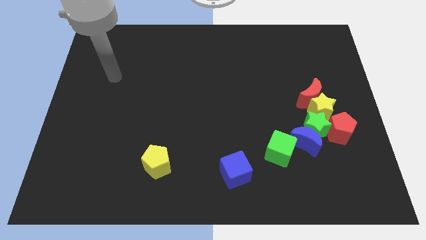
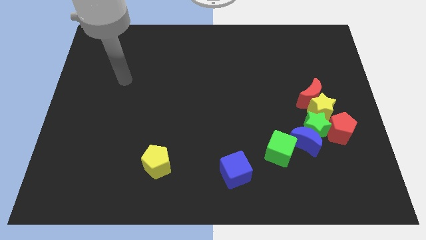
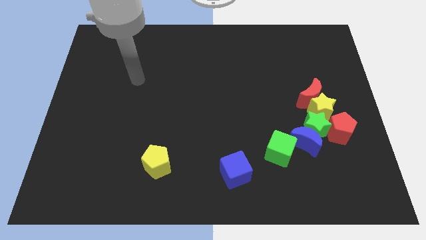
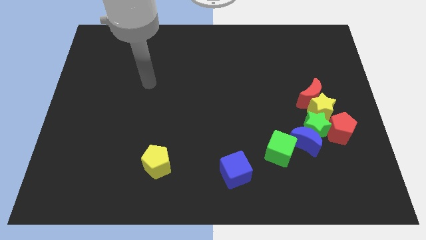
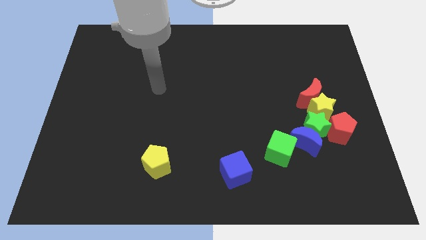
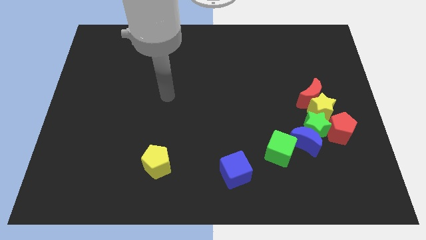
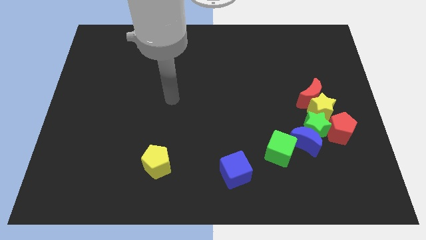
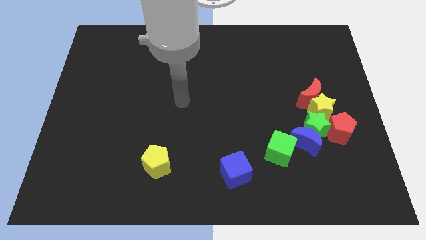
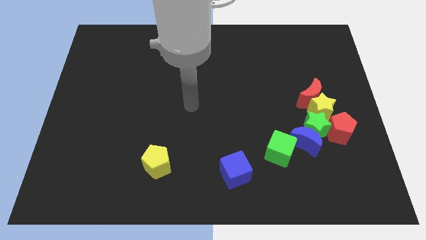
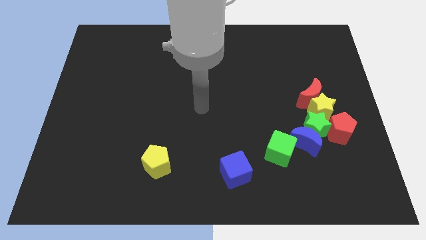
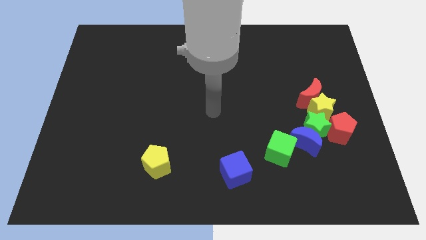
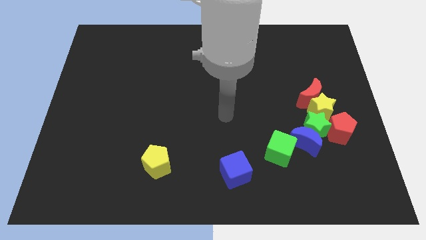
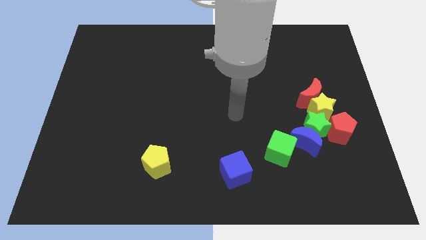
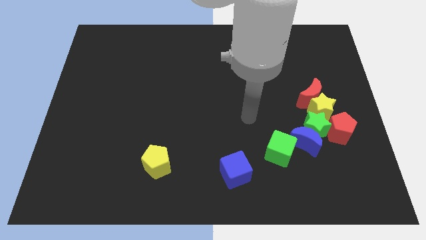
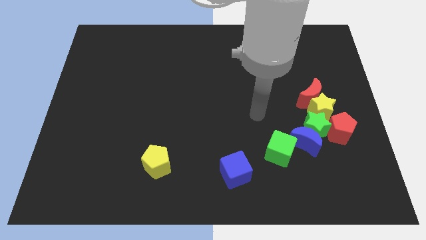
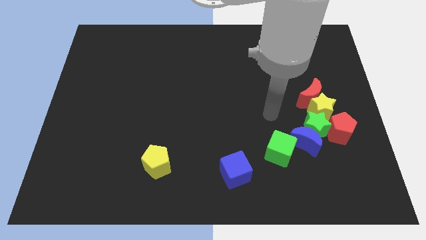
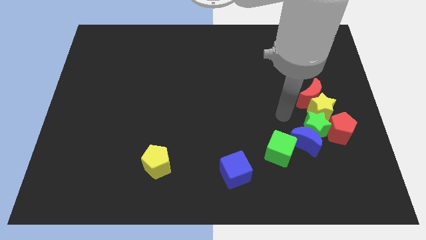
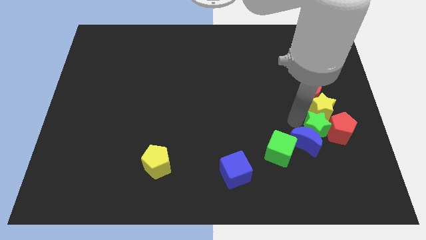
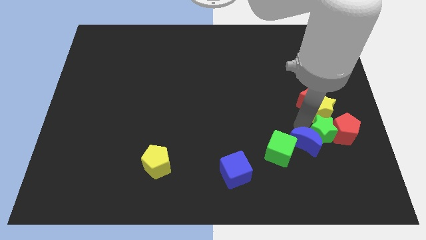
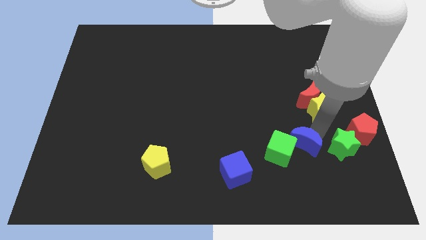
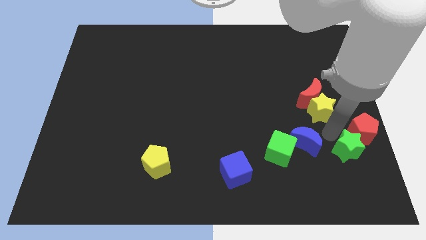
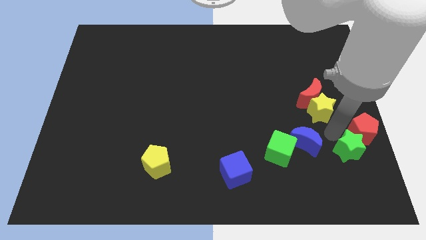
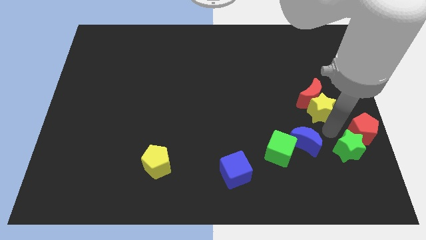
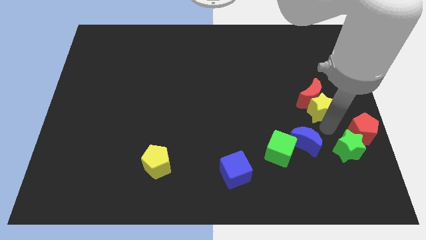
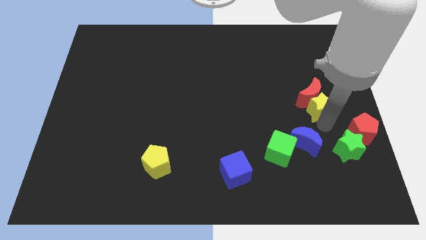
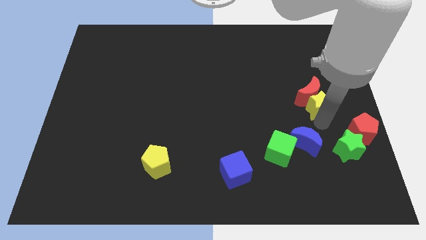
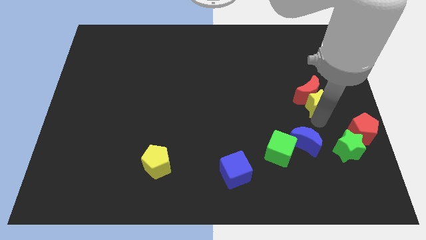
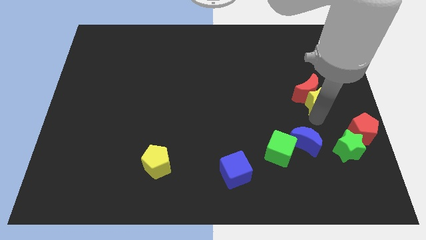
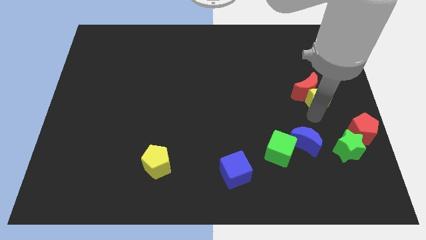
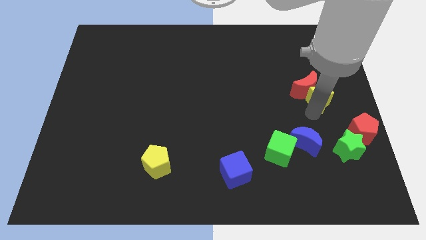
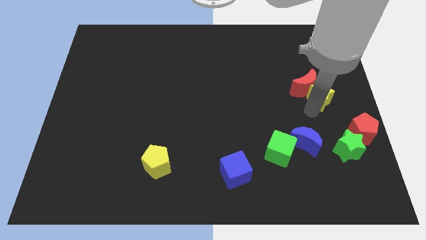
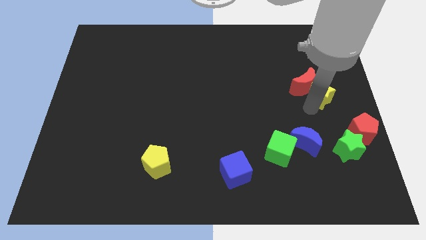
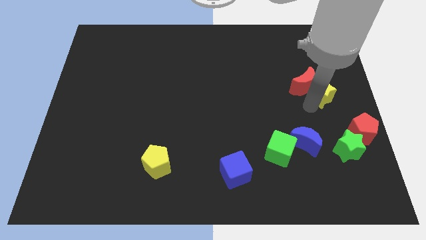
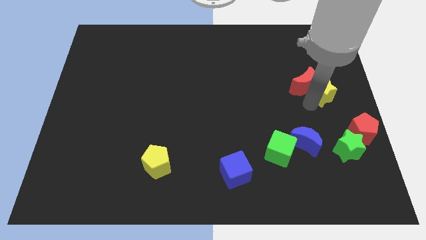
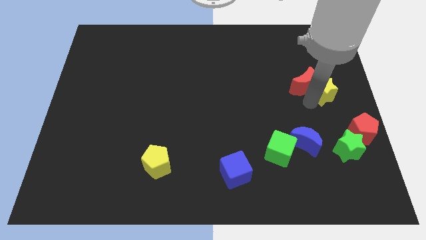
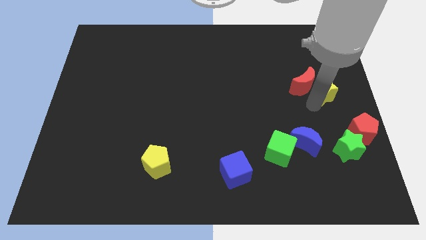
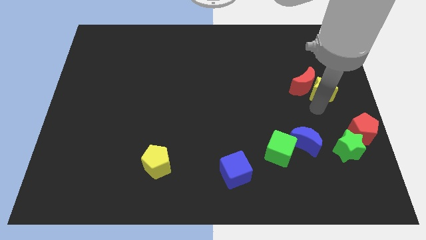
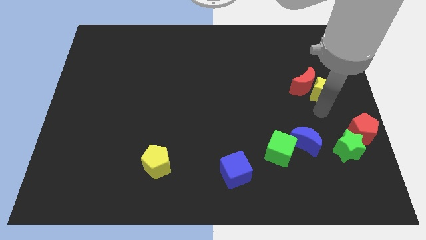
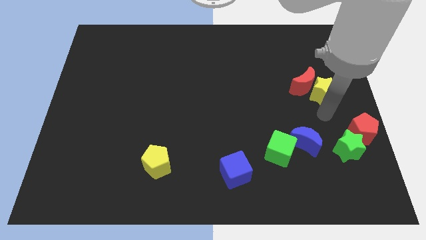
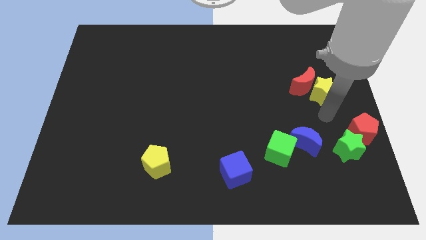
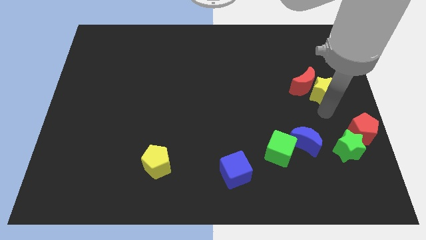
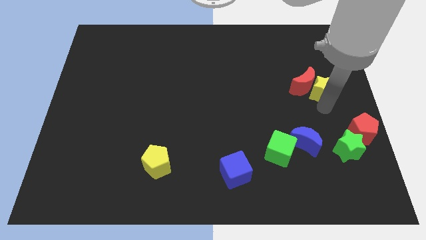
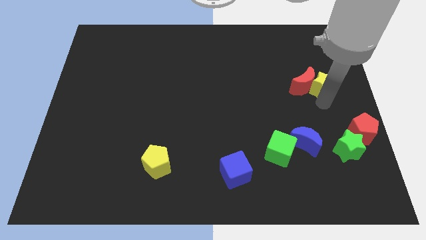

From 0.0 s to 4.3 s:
separate the yellow star from the group of blocks

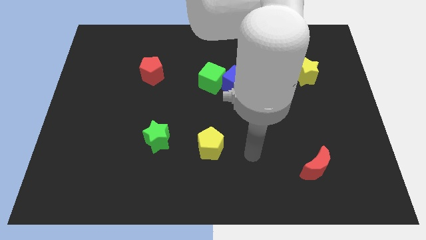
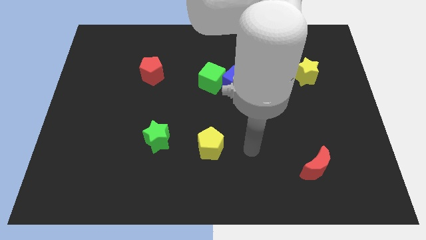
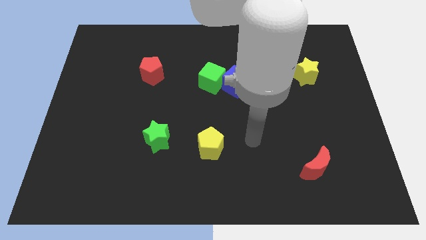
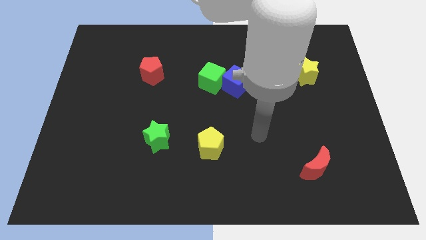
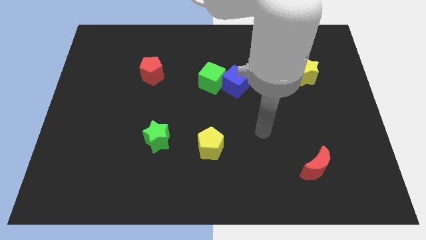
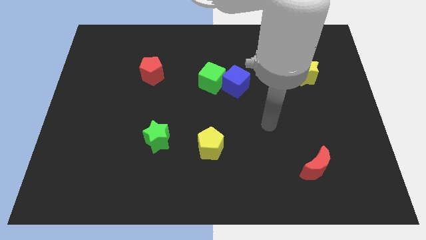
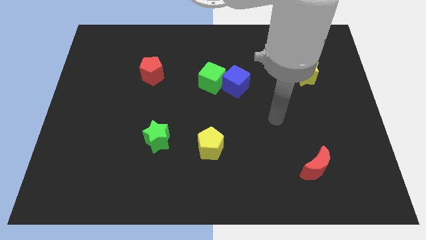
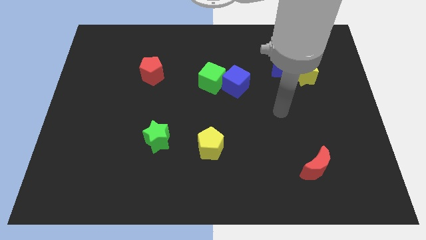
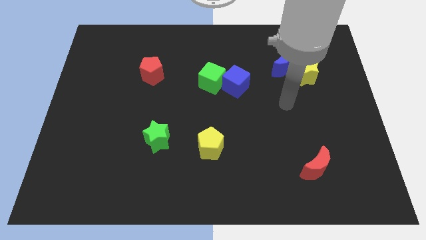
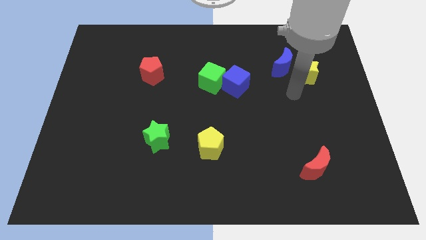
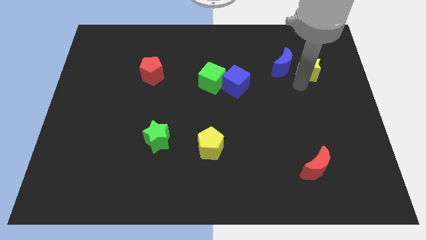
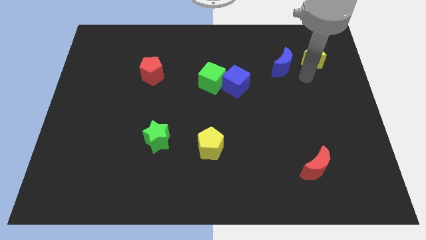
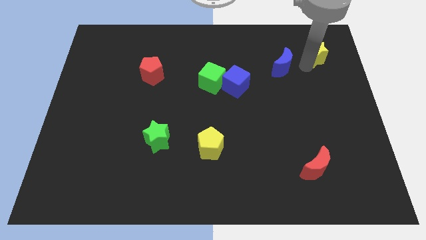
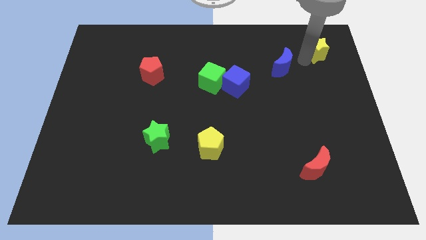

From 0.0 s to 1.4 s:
move the blue moon away from the yellow star

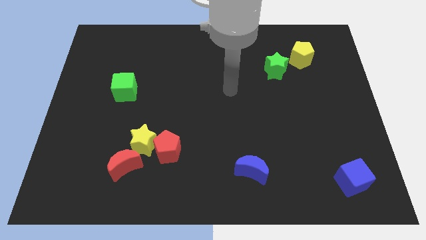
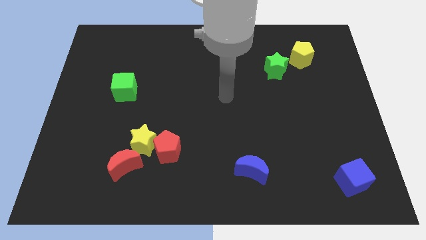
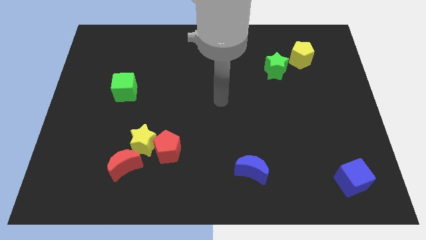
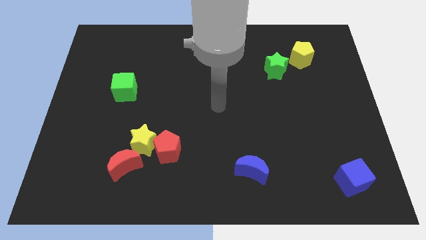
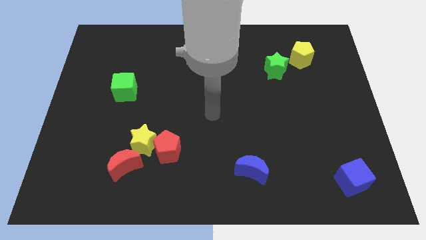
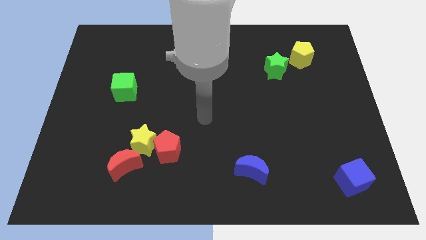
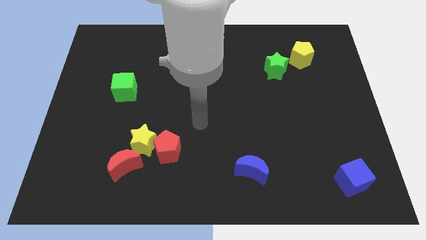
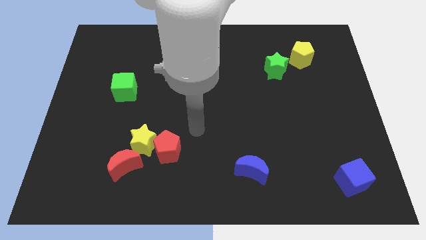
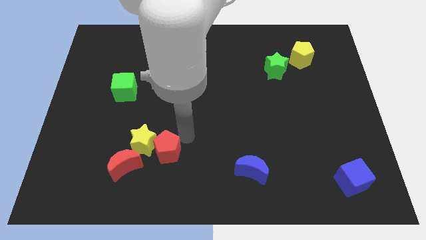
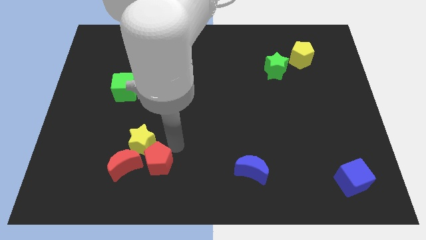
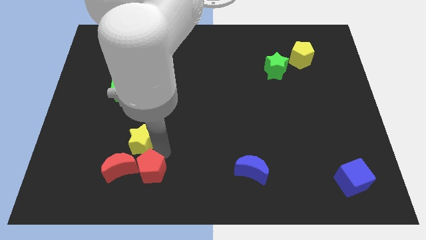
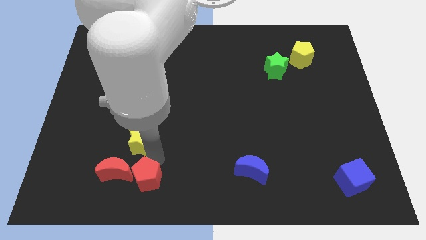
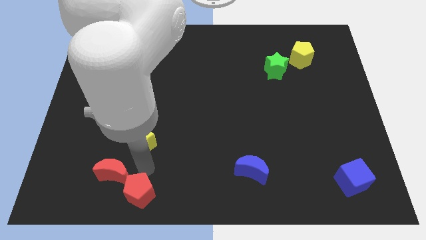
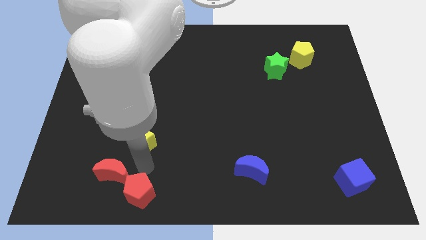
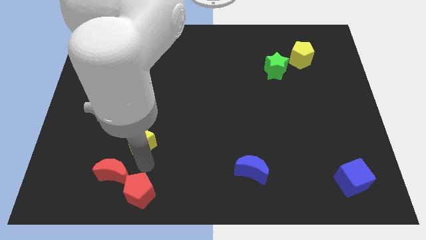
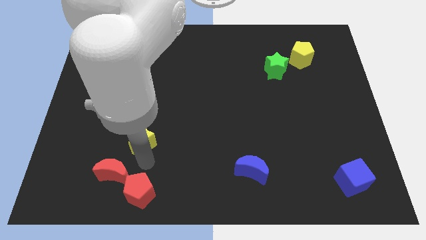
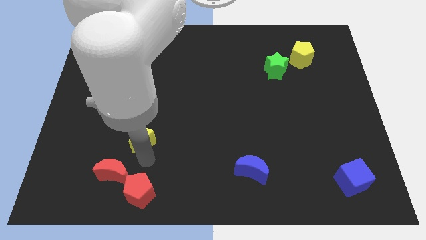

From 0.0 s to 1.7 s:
move the yellow star away from the red pentagon and red moon

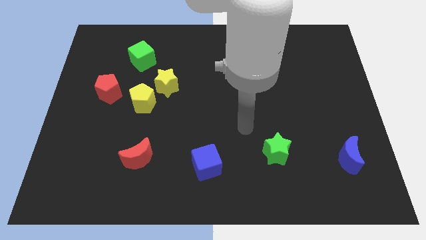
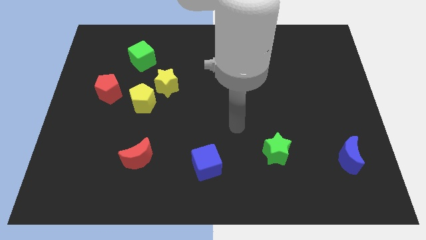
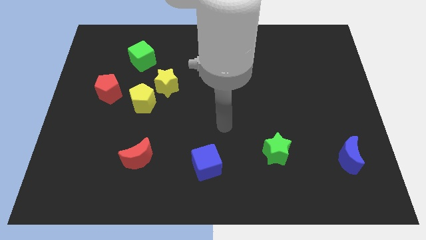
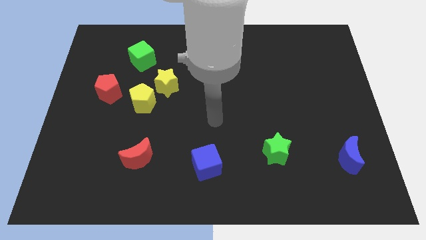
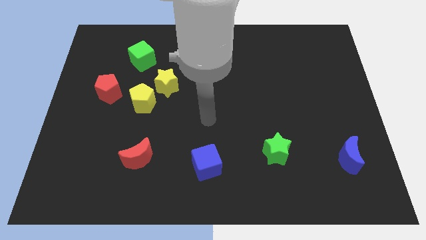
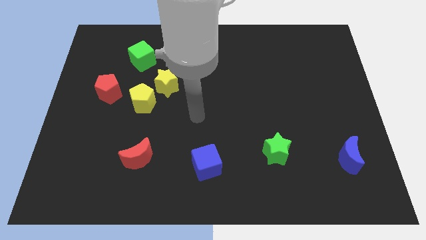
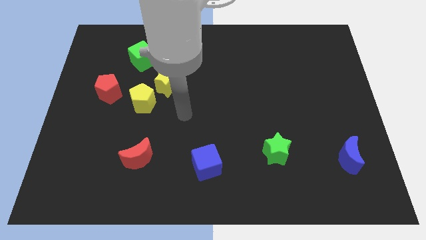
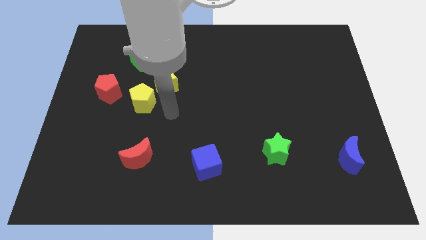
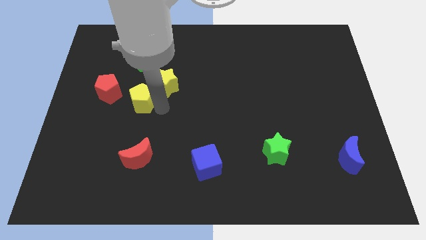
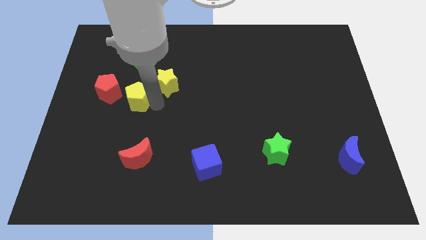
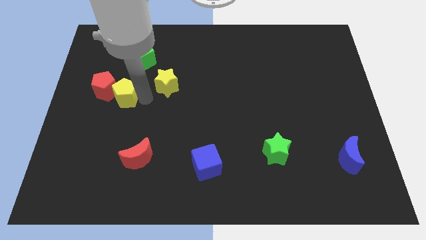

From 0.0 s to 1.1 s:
pull the yellow star apart from the yellow pentagon

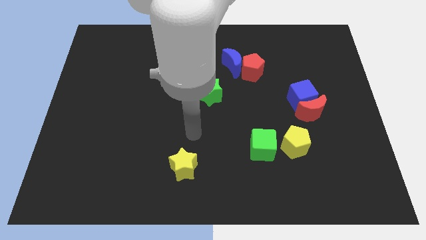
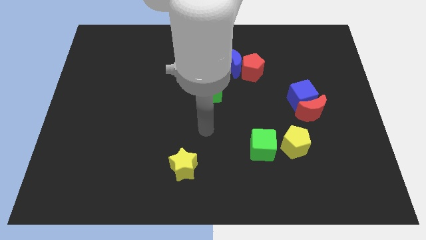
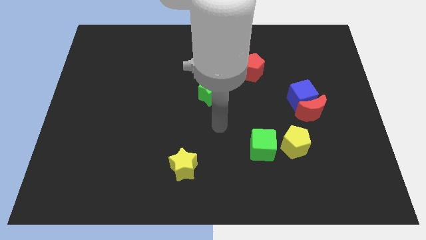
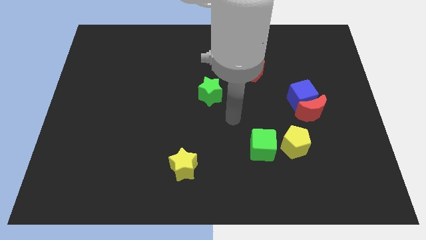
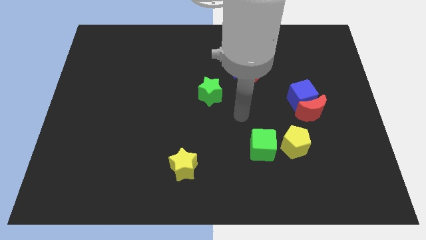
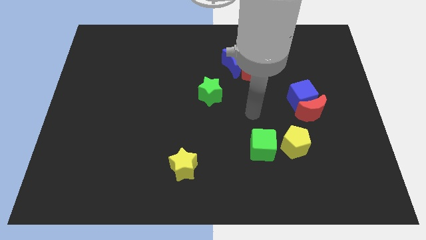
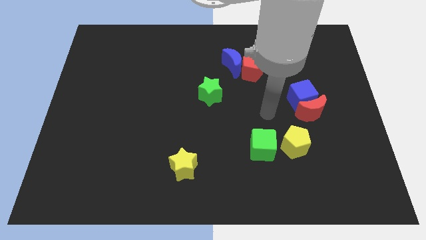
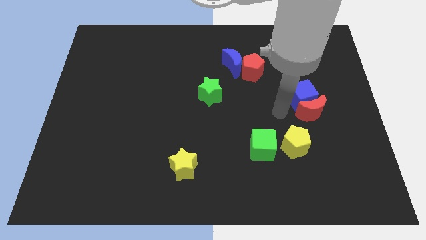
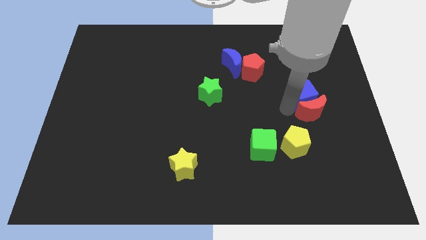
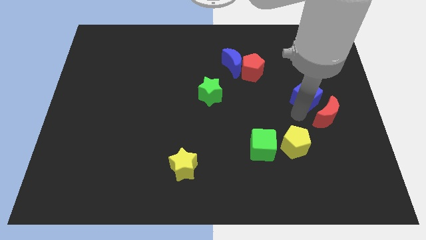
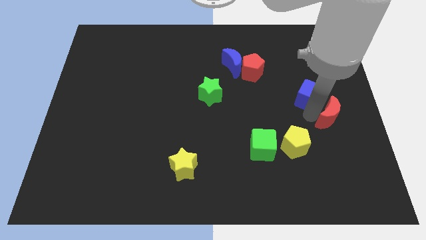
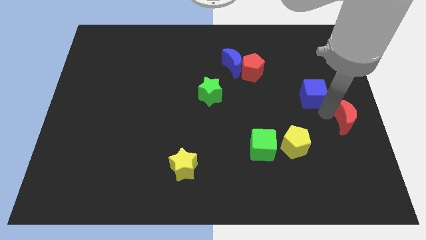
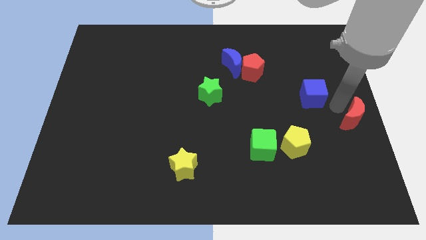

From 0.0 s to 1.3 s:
move the blue cube away from the red moon
